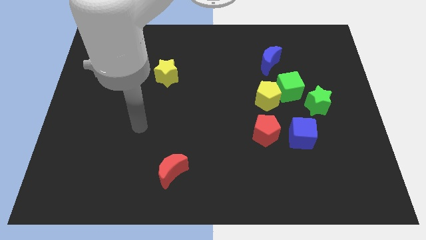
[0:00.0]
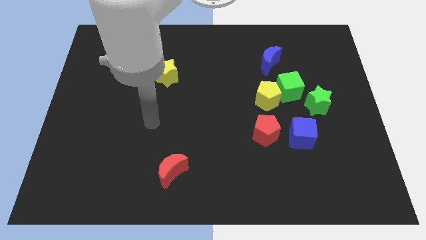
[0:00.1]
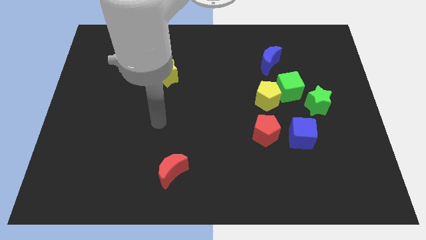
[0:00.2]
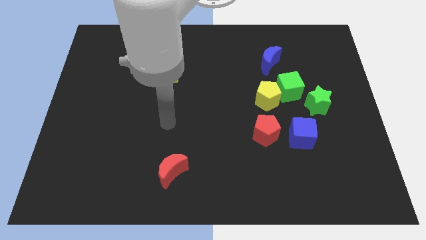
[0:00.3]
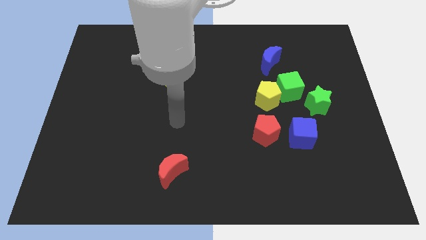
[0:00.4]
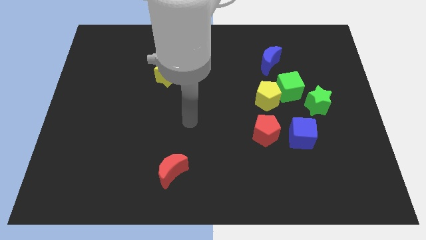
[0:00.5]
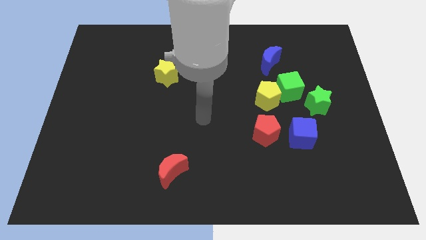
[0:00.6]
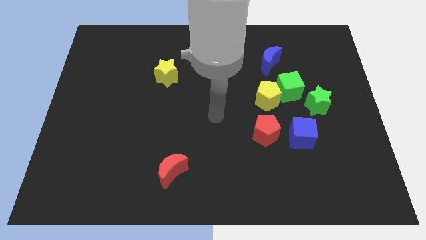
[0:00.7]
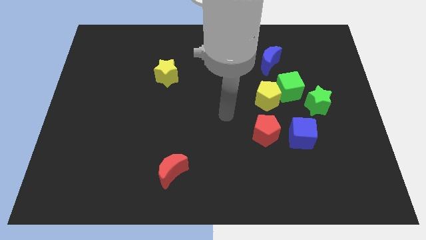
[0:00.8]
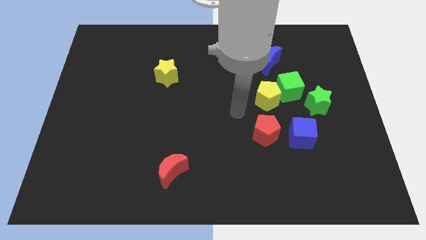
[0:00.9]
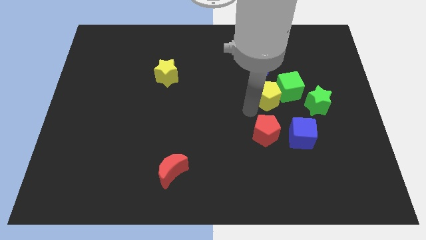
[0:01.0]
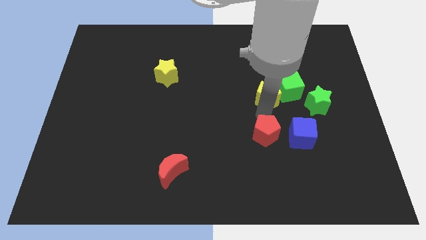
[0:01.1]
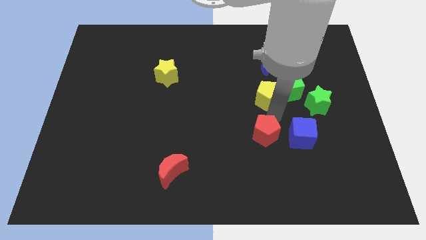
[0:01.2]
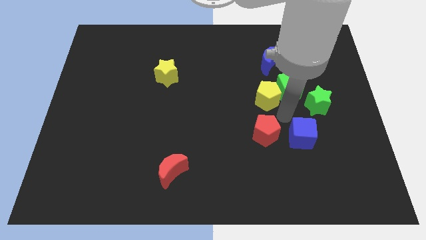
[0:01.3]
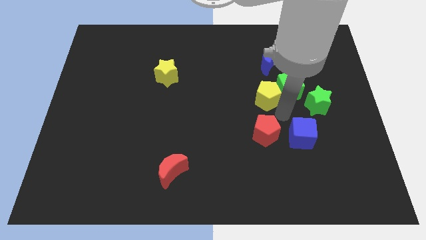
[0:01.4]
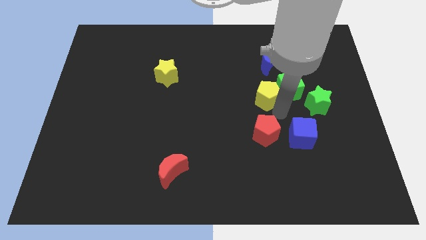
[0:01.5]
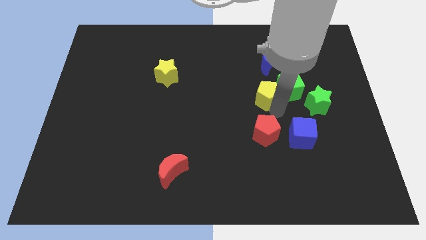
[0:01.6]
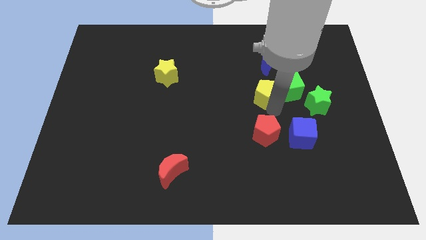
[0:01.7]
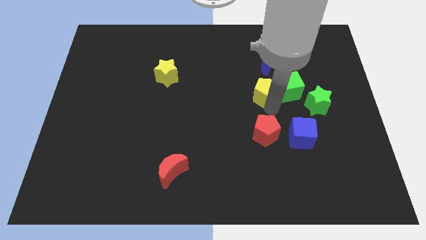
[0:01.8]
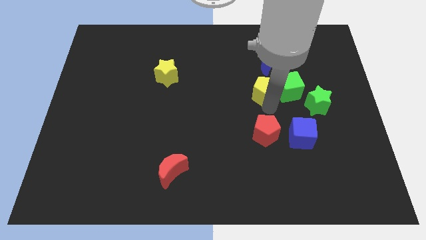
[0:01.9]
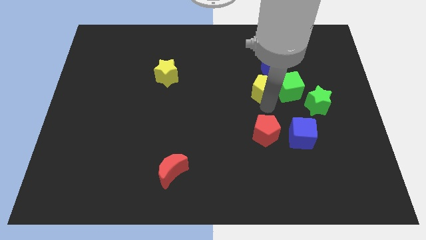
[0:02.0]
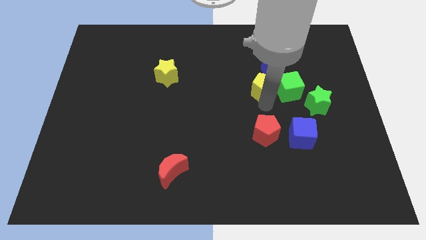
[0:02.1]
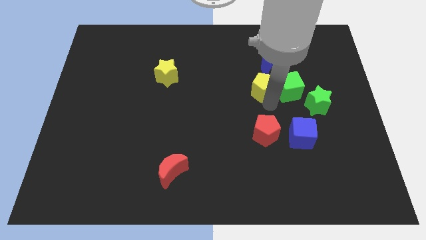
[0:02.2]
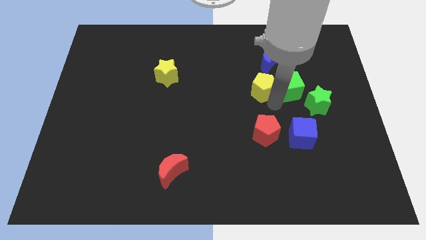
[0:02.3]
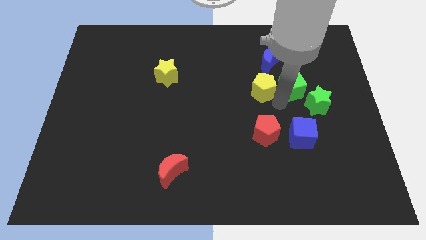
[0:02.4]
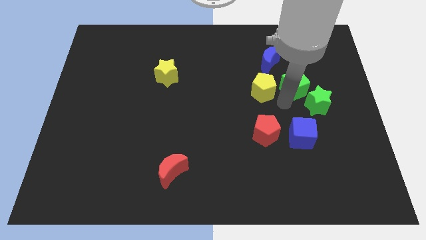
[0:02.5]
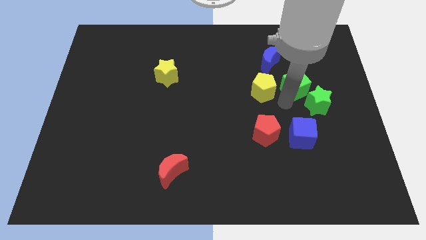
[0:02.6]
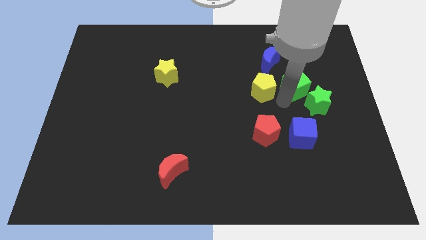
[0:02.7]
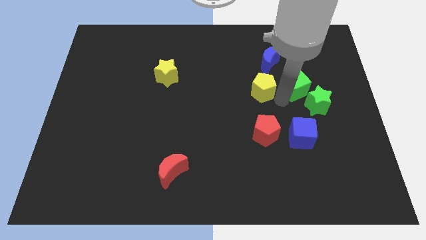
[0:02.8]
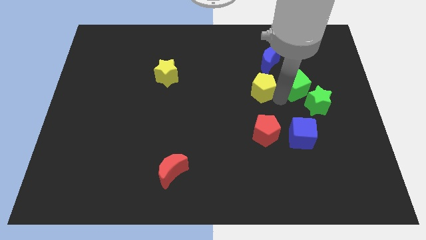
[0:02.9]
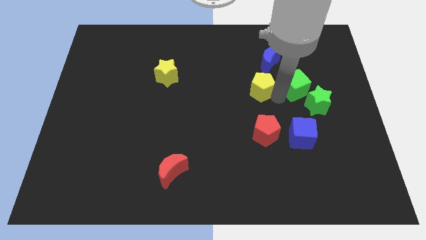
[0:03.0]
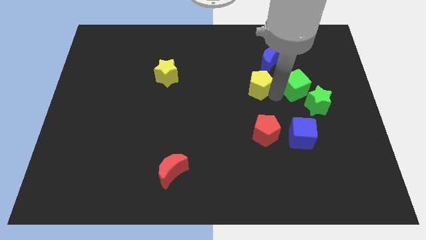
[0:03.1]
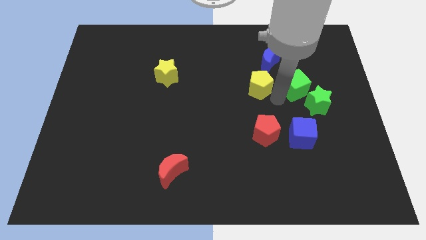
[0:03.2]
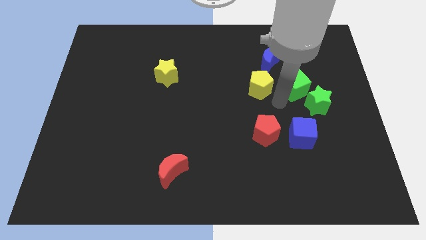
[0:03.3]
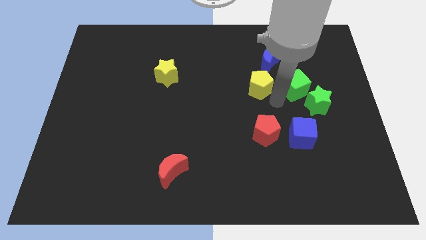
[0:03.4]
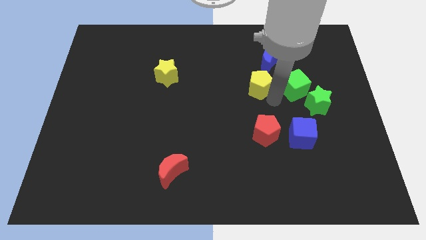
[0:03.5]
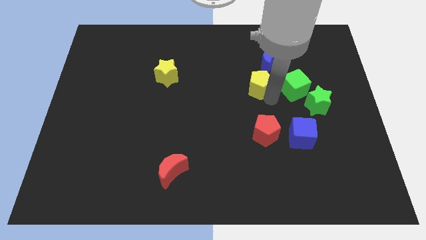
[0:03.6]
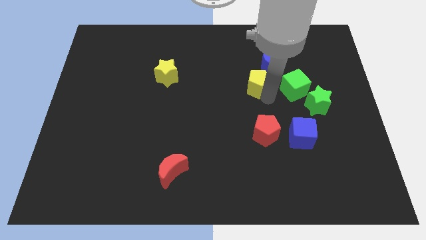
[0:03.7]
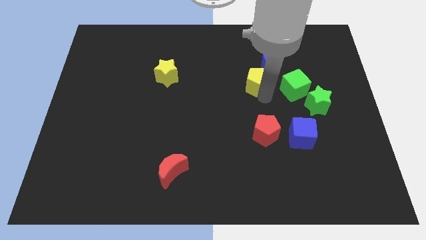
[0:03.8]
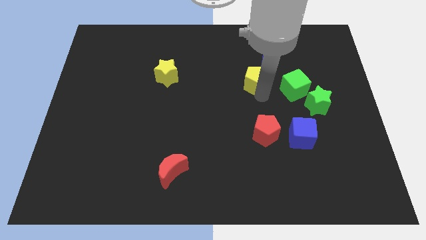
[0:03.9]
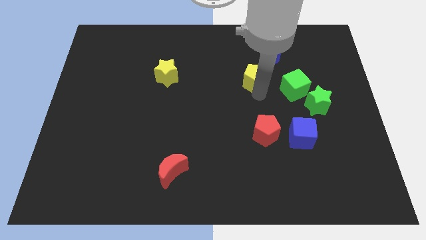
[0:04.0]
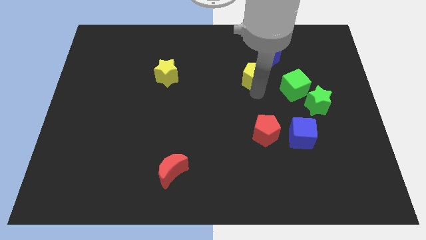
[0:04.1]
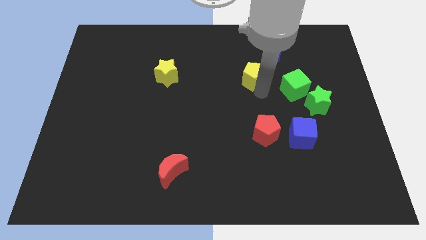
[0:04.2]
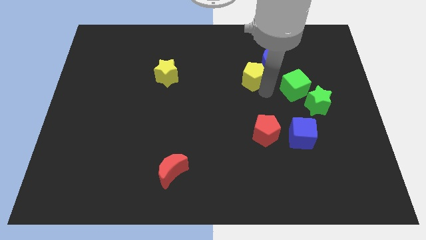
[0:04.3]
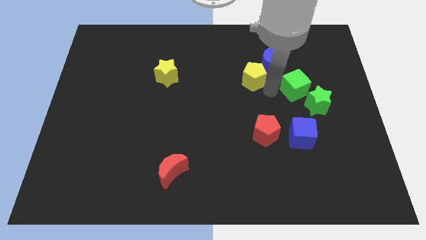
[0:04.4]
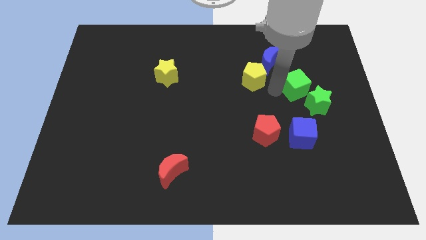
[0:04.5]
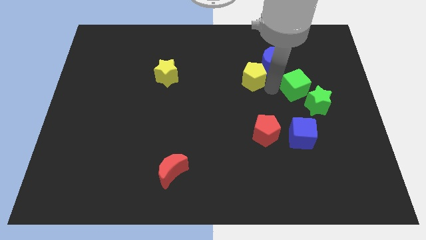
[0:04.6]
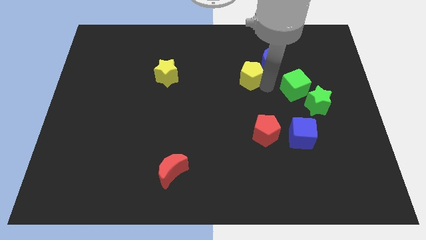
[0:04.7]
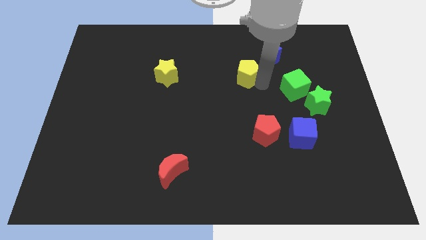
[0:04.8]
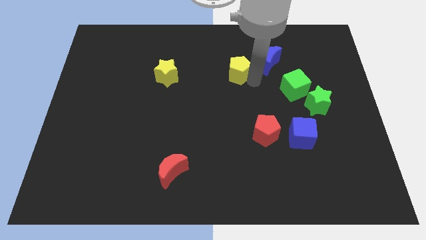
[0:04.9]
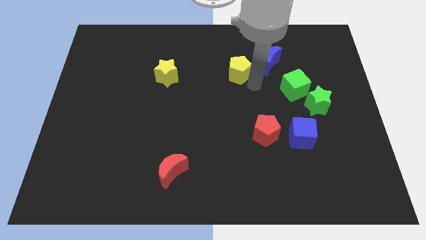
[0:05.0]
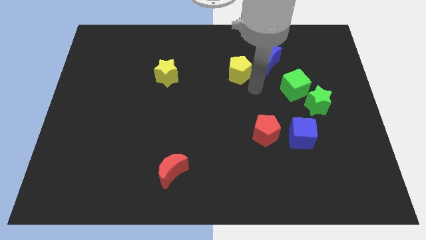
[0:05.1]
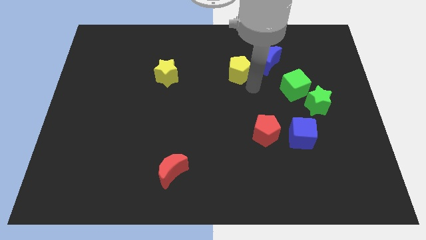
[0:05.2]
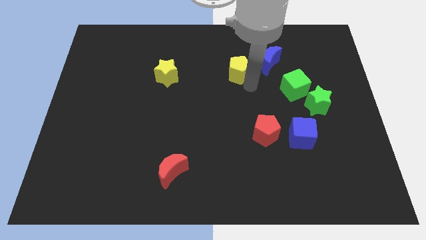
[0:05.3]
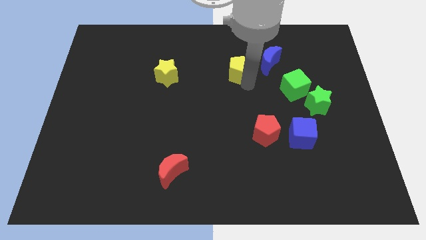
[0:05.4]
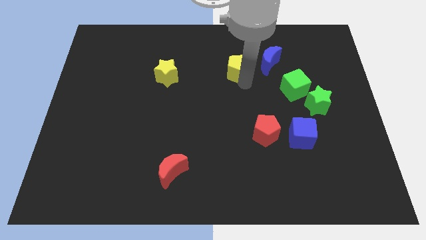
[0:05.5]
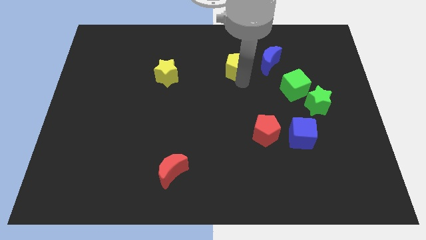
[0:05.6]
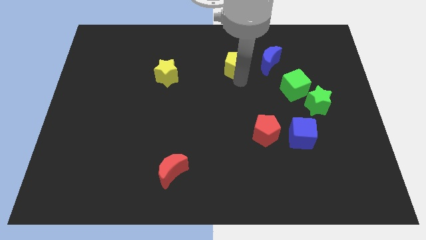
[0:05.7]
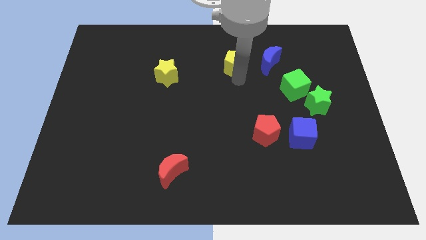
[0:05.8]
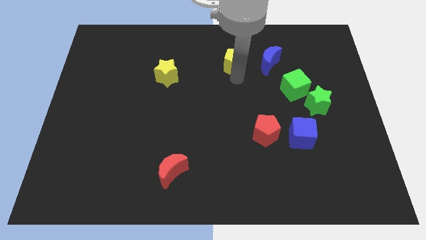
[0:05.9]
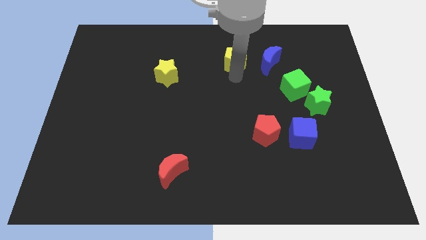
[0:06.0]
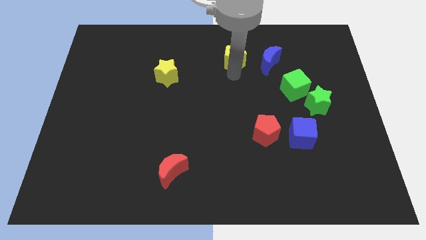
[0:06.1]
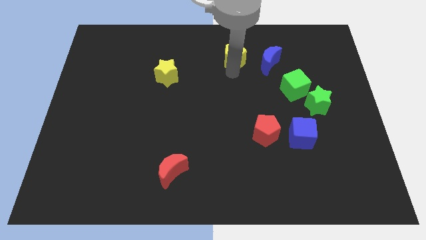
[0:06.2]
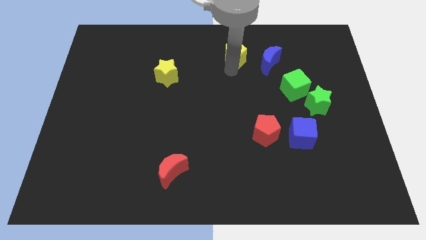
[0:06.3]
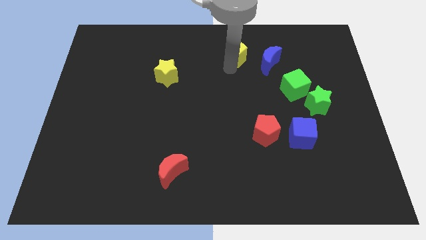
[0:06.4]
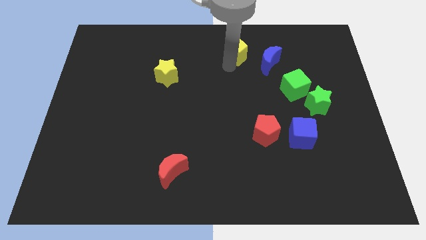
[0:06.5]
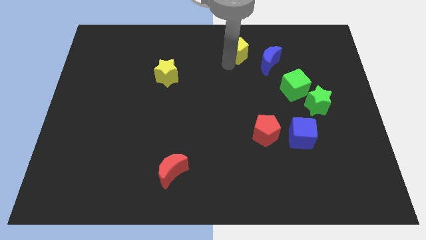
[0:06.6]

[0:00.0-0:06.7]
push the yellow pentagon to the top side
